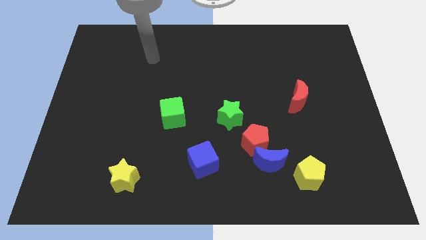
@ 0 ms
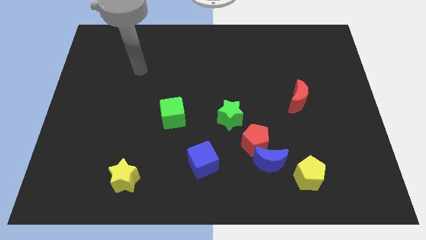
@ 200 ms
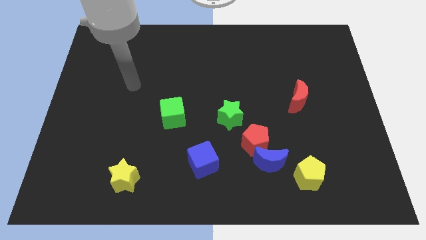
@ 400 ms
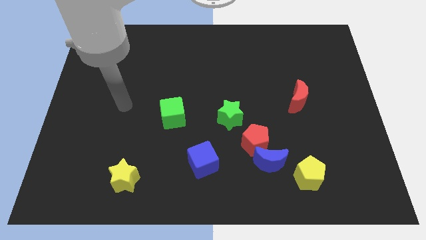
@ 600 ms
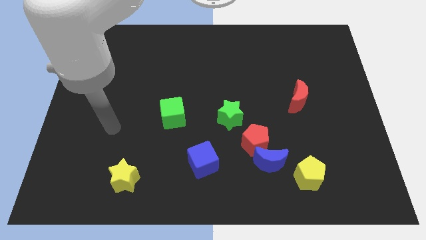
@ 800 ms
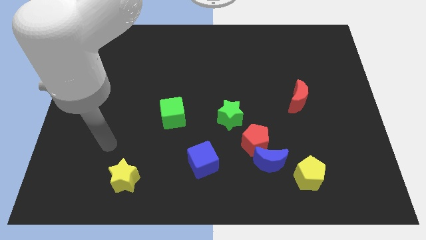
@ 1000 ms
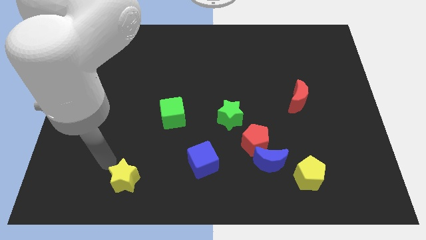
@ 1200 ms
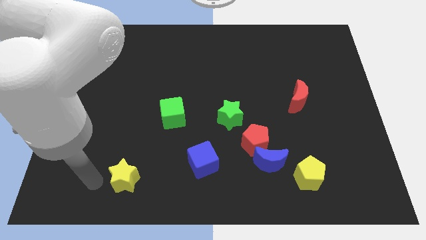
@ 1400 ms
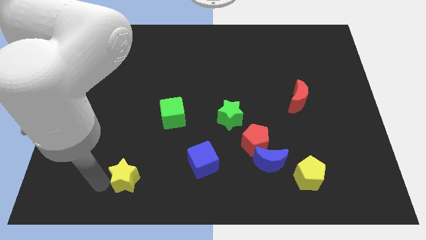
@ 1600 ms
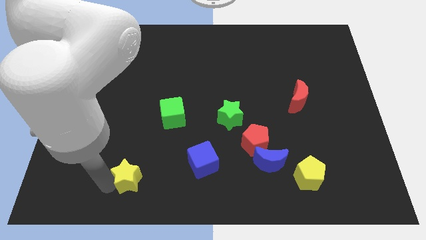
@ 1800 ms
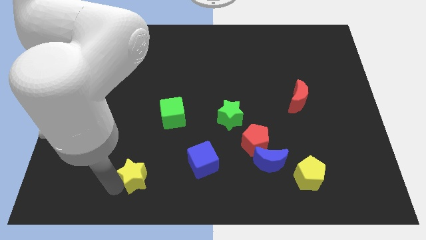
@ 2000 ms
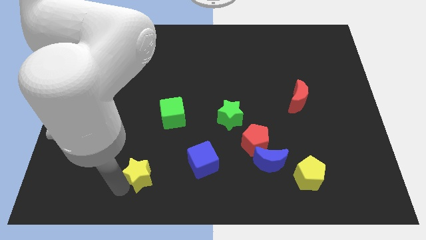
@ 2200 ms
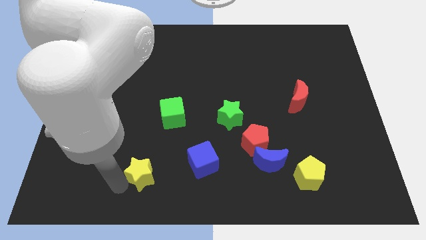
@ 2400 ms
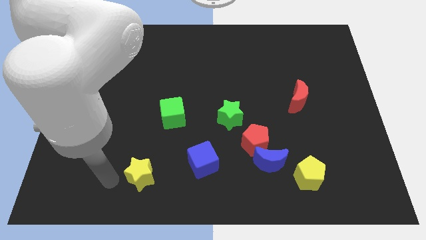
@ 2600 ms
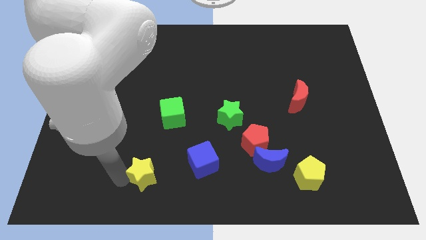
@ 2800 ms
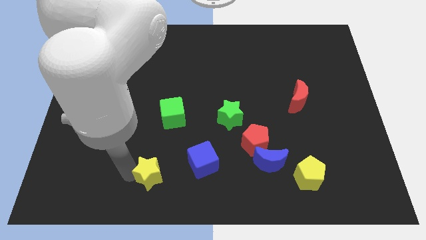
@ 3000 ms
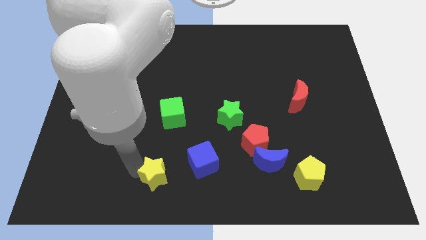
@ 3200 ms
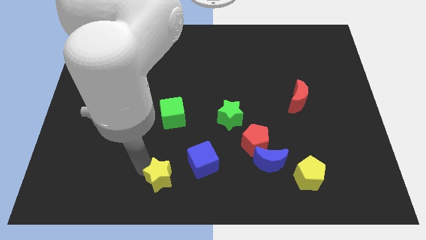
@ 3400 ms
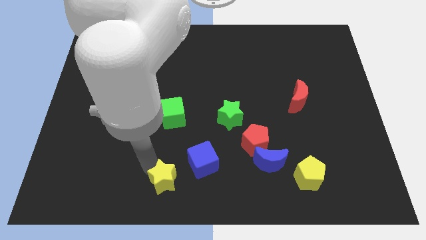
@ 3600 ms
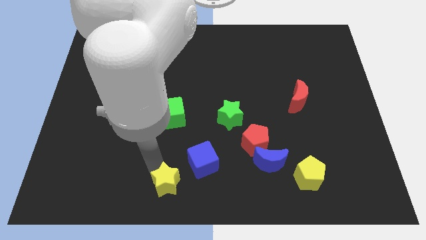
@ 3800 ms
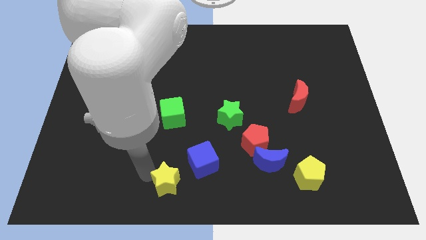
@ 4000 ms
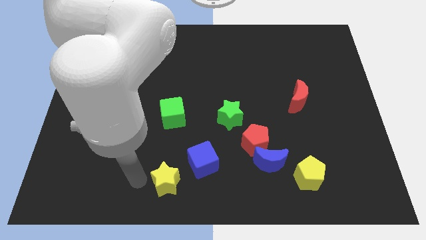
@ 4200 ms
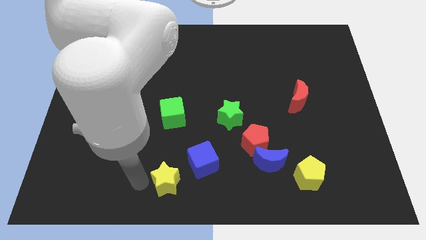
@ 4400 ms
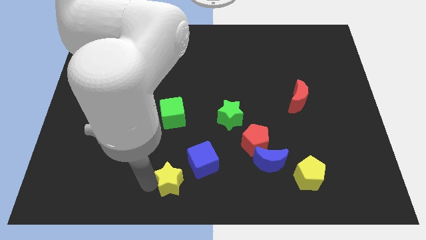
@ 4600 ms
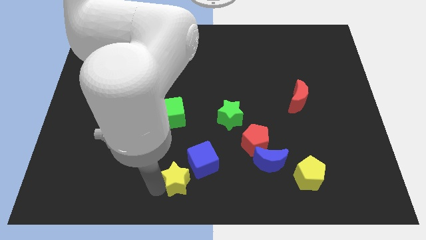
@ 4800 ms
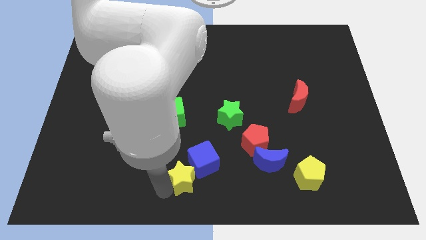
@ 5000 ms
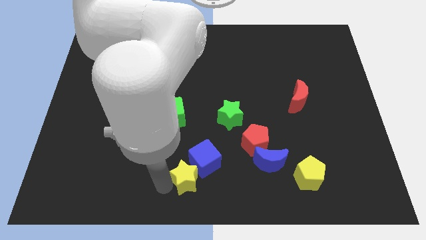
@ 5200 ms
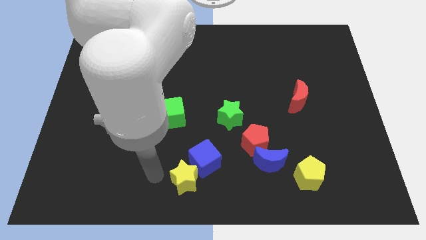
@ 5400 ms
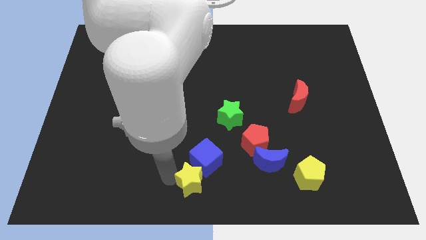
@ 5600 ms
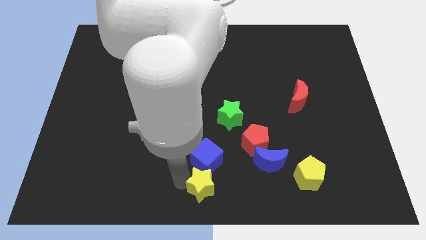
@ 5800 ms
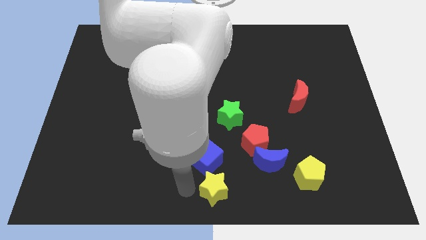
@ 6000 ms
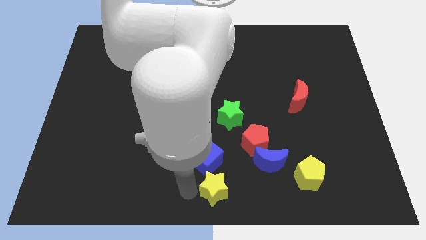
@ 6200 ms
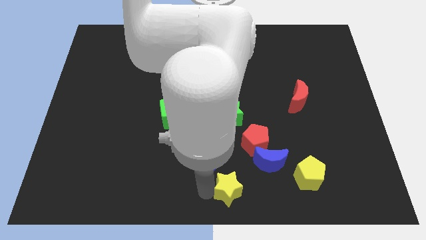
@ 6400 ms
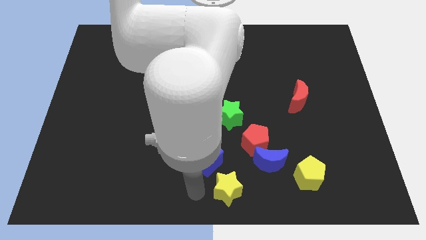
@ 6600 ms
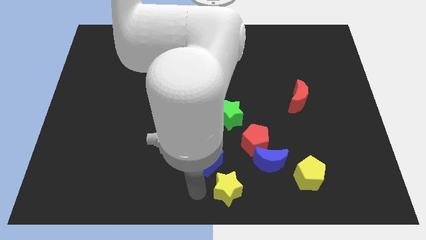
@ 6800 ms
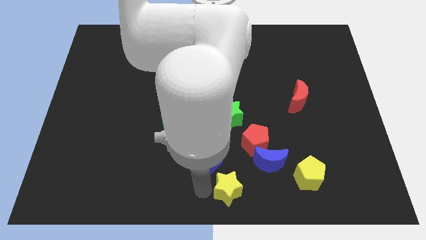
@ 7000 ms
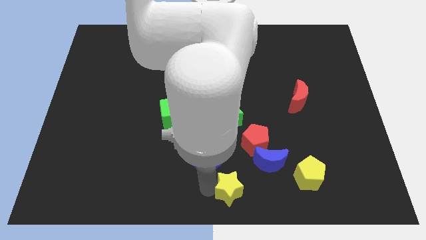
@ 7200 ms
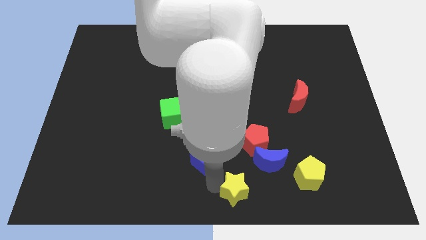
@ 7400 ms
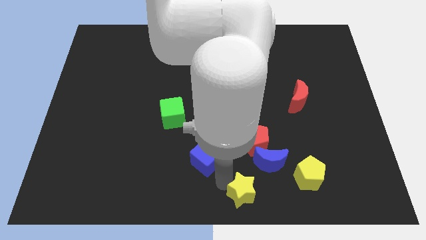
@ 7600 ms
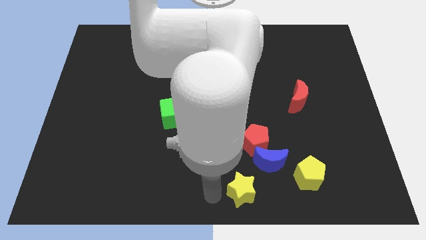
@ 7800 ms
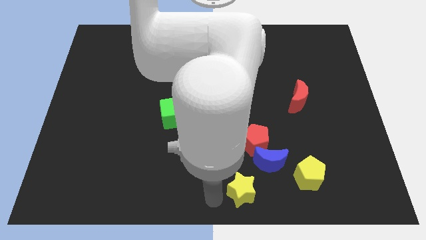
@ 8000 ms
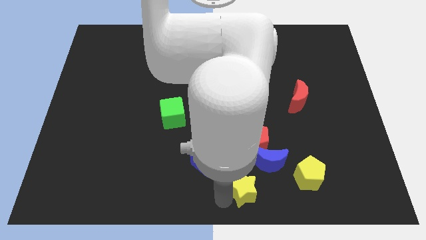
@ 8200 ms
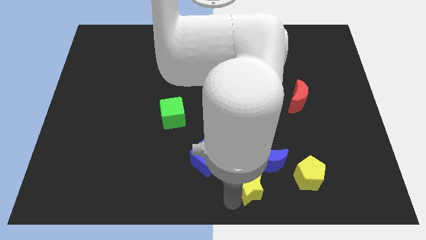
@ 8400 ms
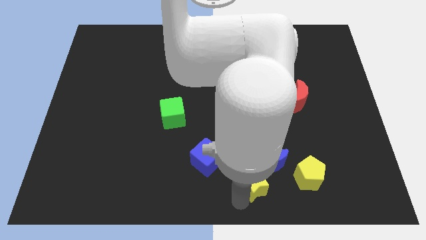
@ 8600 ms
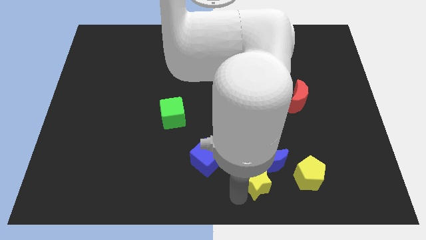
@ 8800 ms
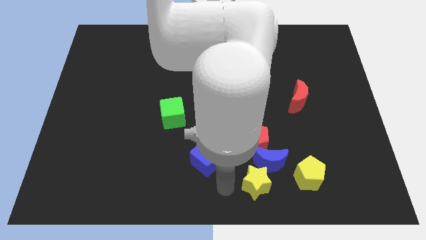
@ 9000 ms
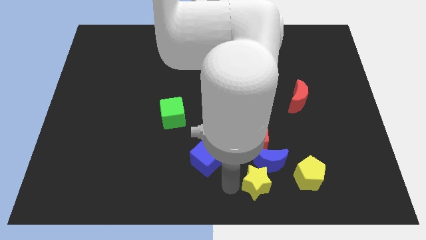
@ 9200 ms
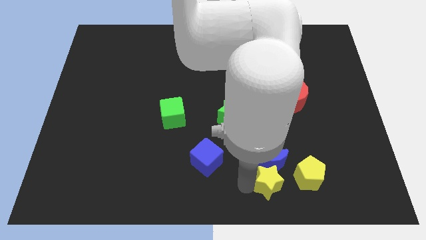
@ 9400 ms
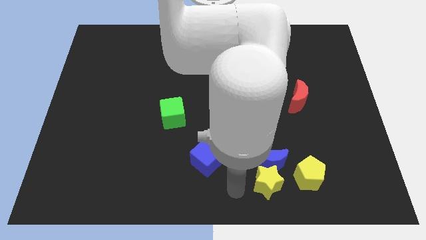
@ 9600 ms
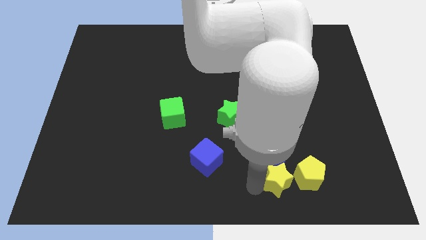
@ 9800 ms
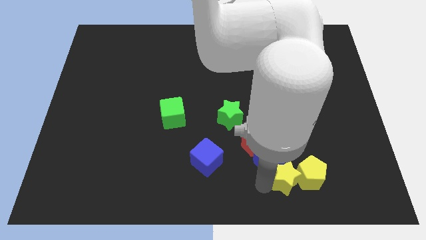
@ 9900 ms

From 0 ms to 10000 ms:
push the yellow star towards the yellow pentagon

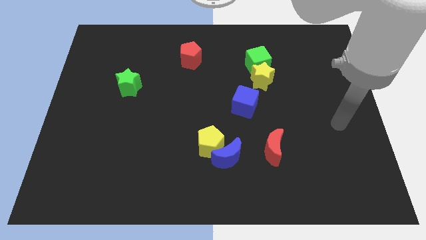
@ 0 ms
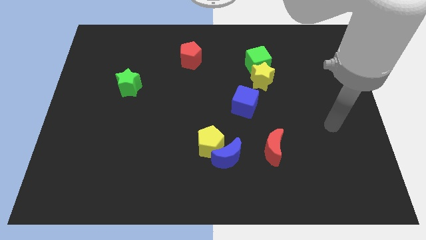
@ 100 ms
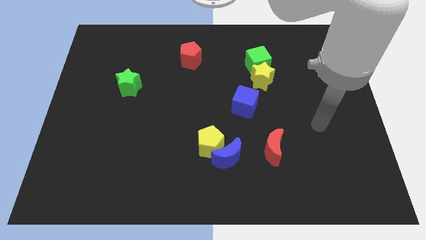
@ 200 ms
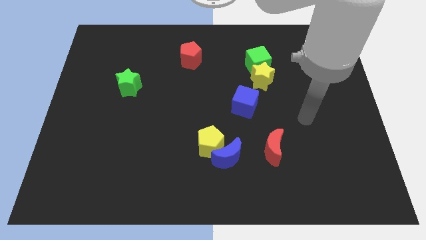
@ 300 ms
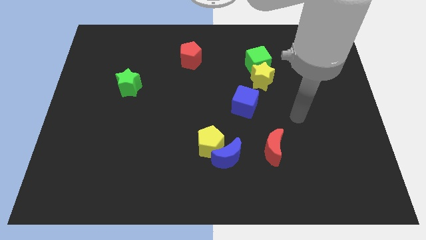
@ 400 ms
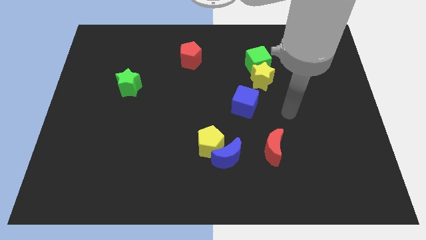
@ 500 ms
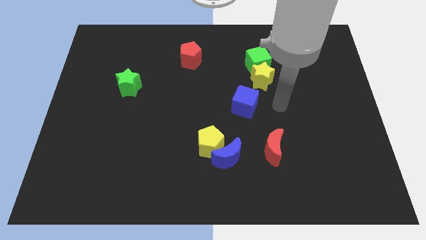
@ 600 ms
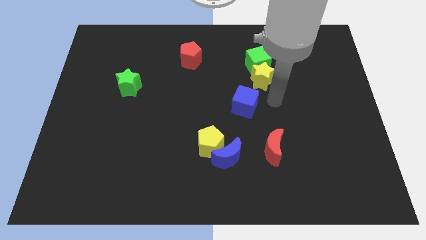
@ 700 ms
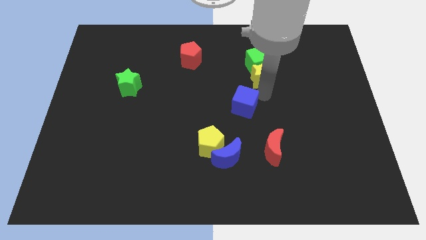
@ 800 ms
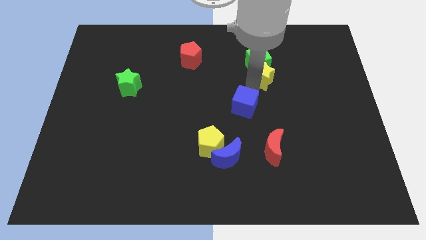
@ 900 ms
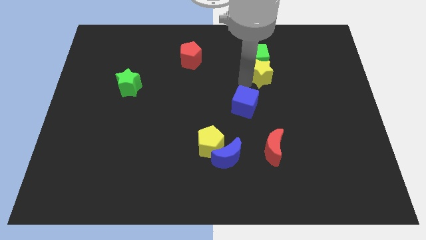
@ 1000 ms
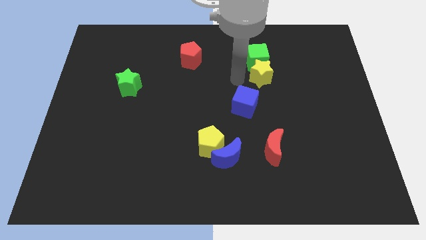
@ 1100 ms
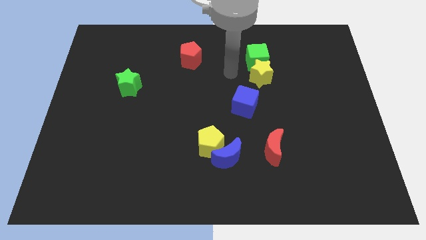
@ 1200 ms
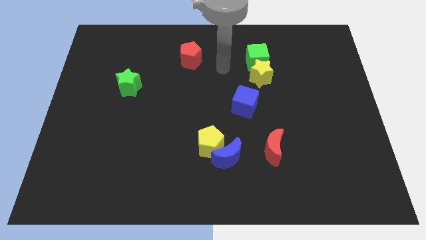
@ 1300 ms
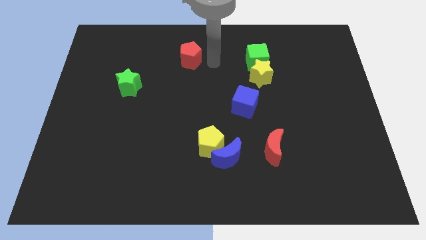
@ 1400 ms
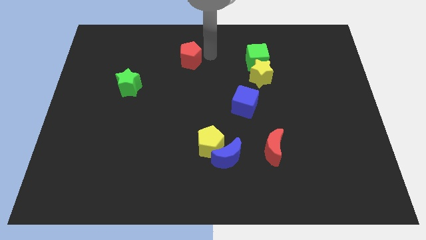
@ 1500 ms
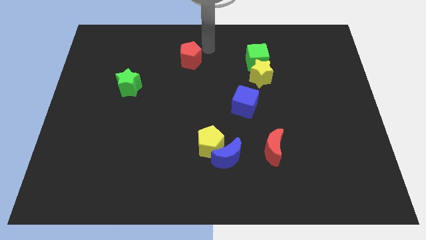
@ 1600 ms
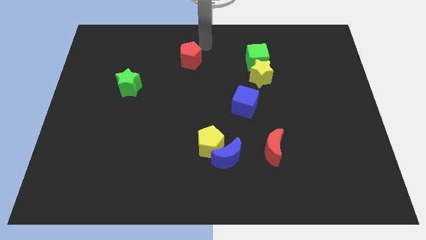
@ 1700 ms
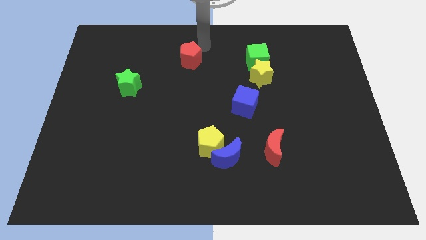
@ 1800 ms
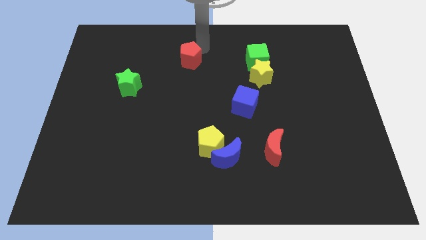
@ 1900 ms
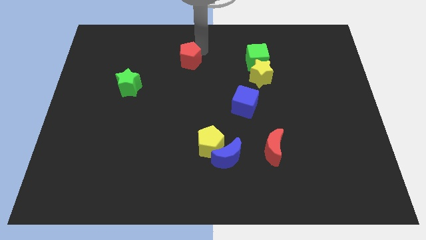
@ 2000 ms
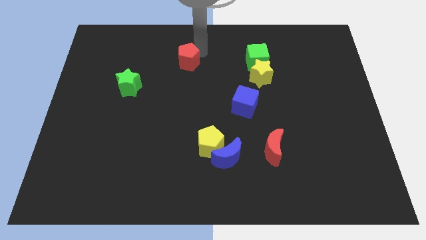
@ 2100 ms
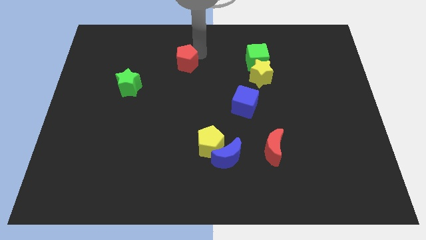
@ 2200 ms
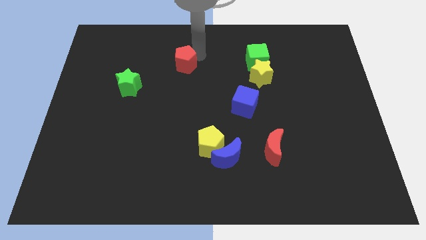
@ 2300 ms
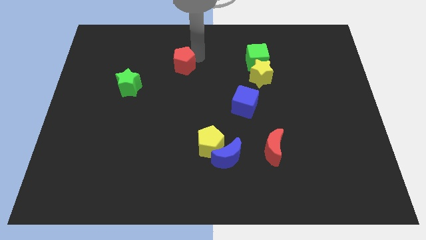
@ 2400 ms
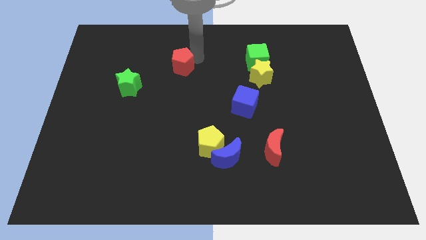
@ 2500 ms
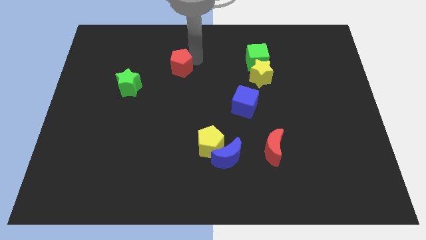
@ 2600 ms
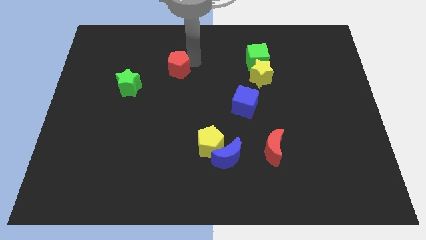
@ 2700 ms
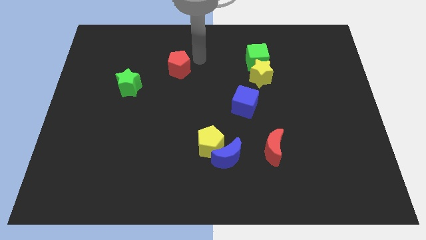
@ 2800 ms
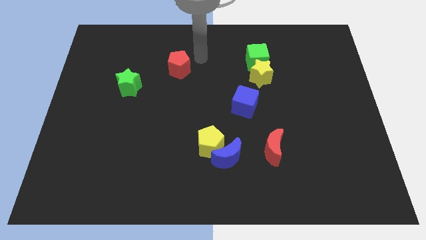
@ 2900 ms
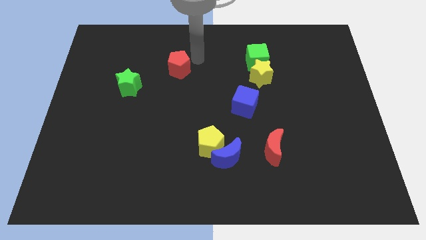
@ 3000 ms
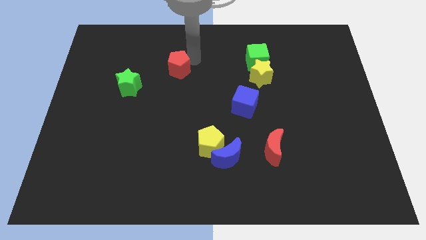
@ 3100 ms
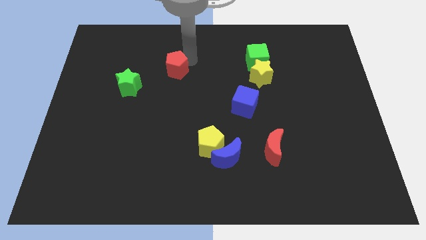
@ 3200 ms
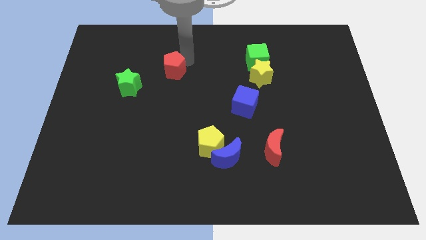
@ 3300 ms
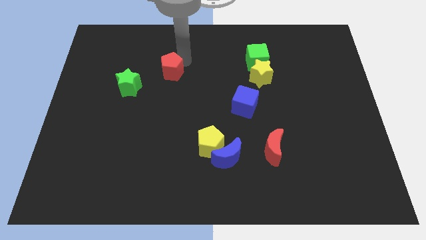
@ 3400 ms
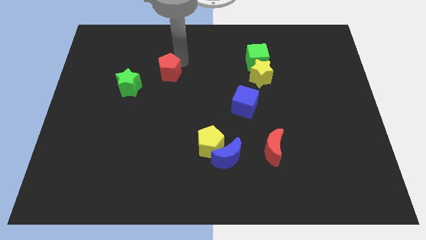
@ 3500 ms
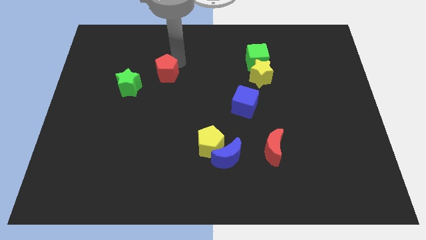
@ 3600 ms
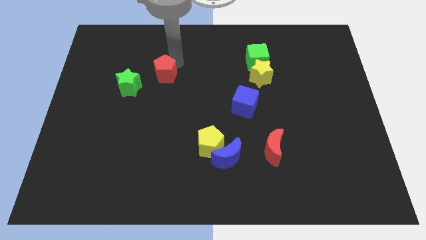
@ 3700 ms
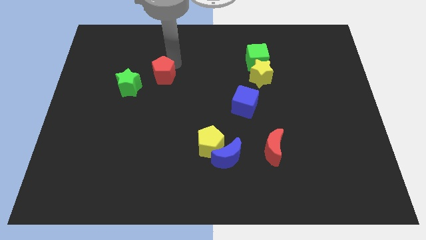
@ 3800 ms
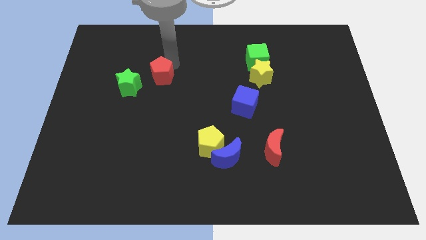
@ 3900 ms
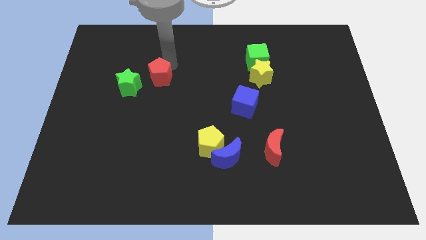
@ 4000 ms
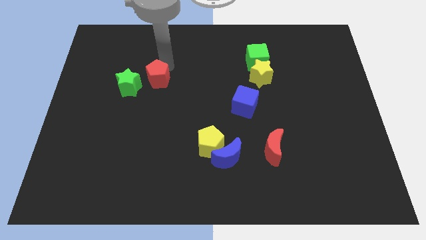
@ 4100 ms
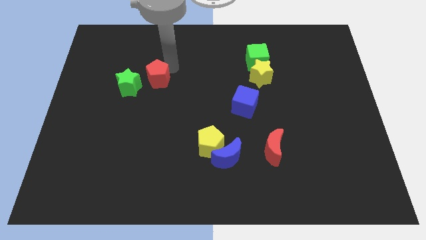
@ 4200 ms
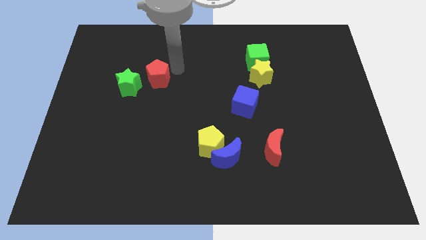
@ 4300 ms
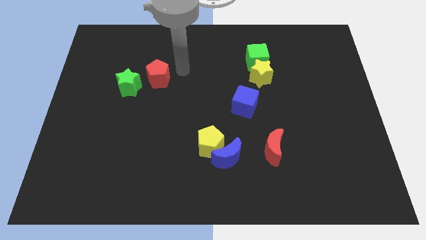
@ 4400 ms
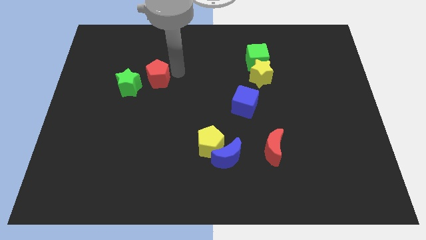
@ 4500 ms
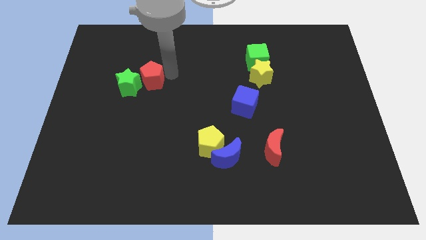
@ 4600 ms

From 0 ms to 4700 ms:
put the red pentagon to the green star
